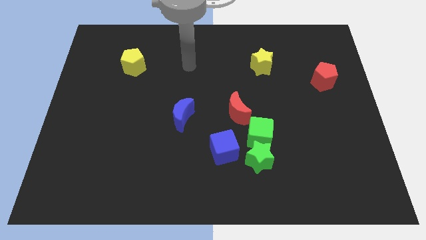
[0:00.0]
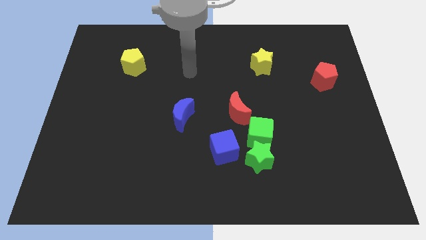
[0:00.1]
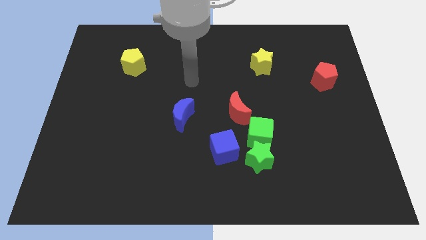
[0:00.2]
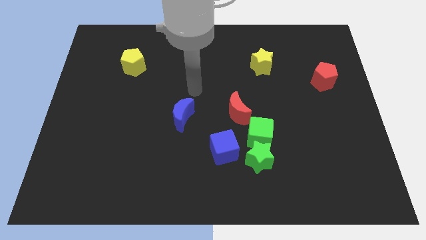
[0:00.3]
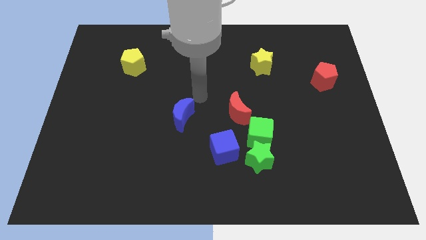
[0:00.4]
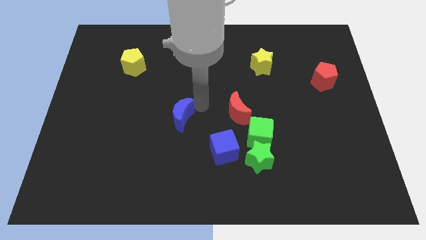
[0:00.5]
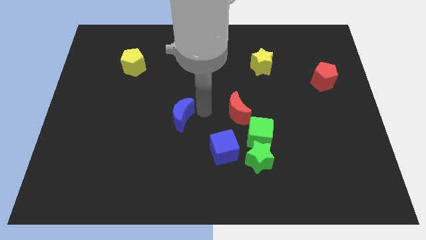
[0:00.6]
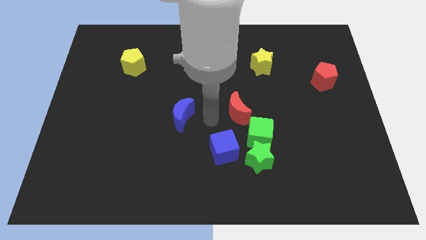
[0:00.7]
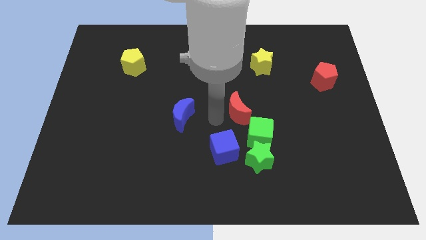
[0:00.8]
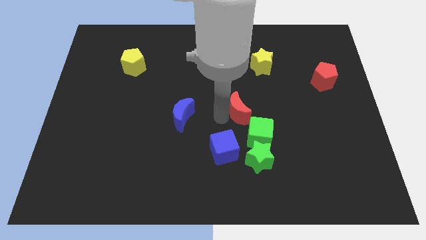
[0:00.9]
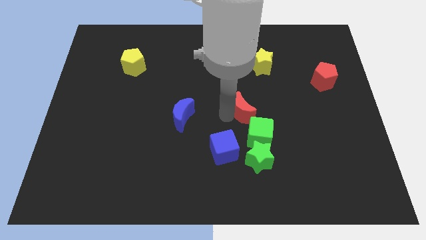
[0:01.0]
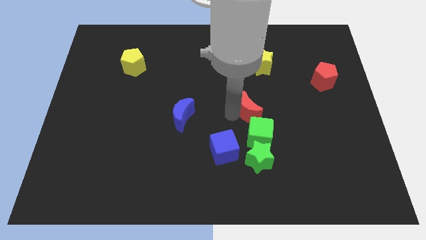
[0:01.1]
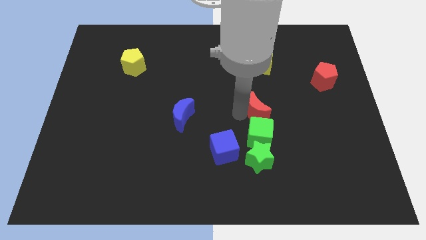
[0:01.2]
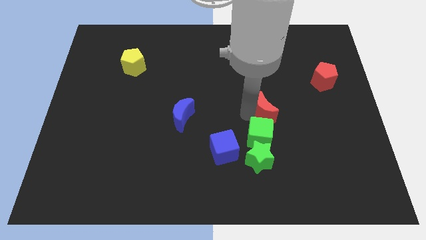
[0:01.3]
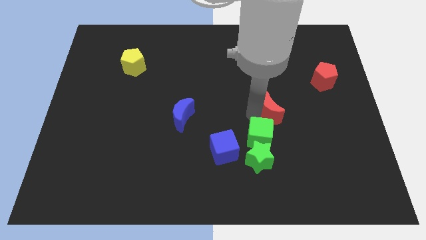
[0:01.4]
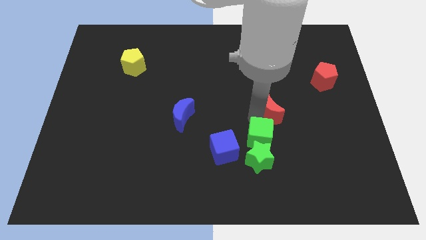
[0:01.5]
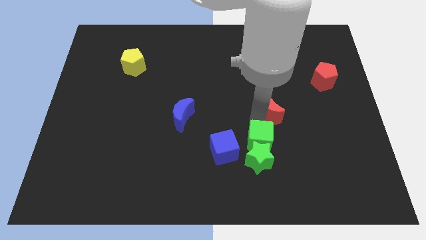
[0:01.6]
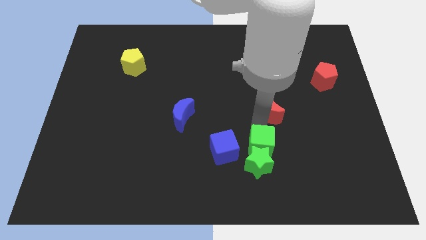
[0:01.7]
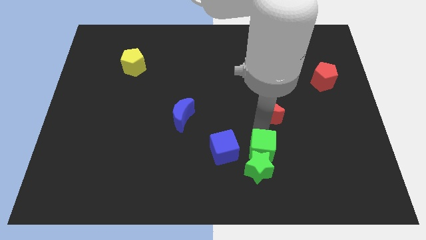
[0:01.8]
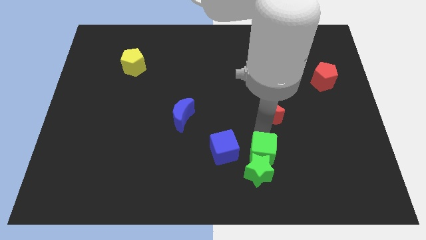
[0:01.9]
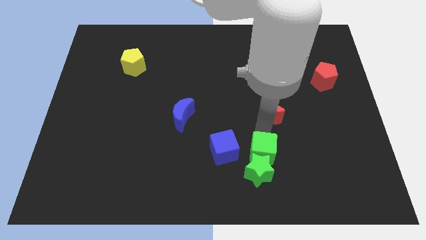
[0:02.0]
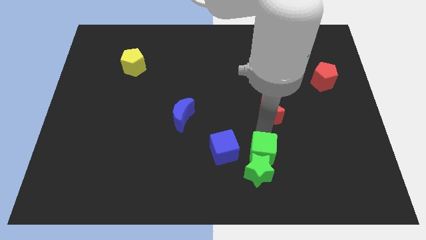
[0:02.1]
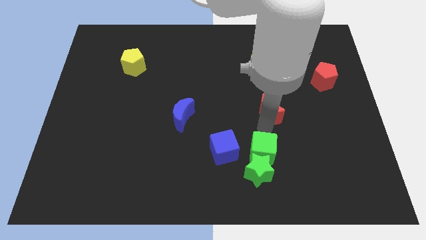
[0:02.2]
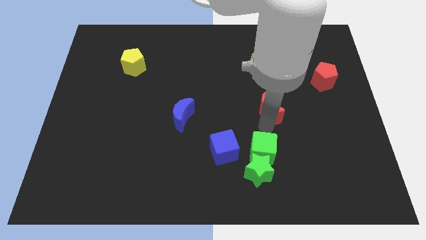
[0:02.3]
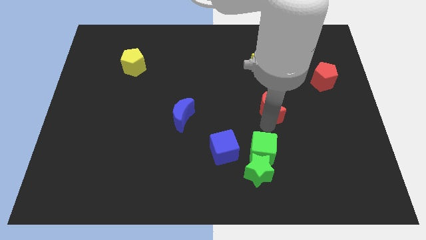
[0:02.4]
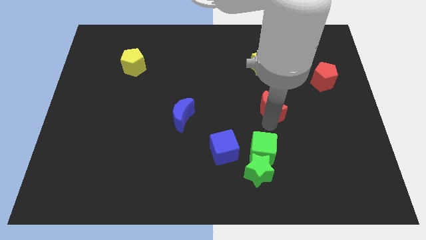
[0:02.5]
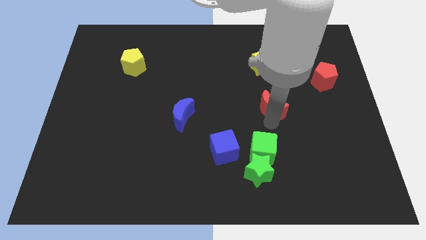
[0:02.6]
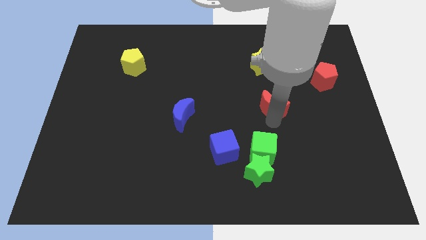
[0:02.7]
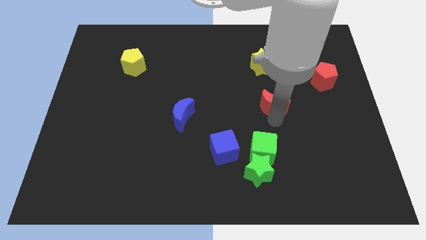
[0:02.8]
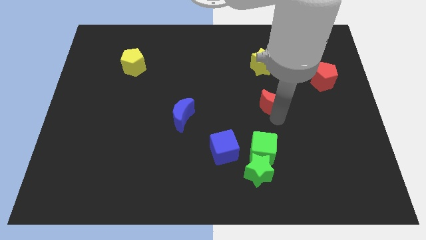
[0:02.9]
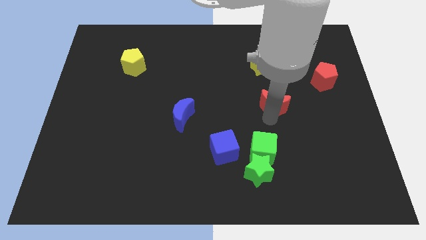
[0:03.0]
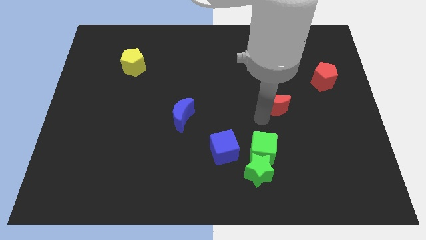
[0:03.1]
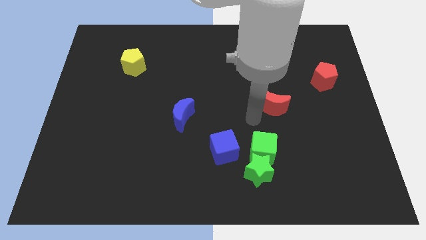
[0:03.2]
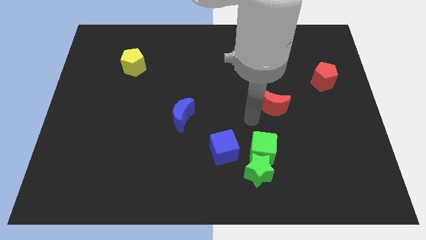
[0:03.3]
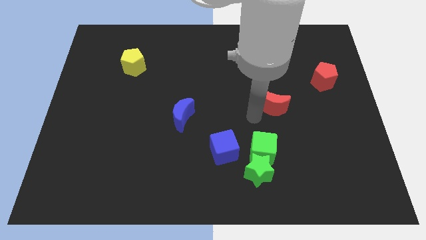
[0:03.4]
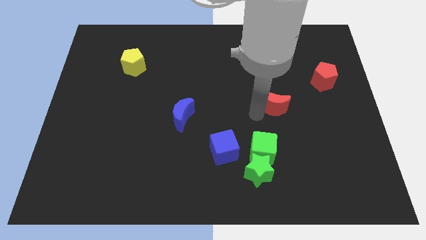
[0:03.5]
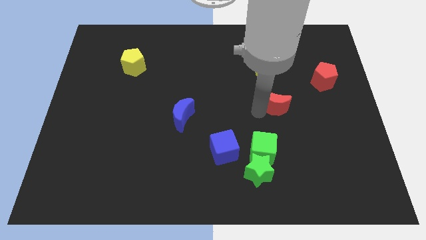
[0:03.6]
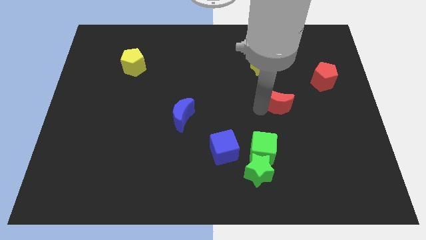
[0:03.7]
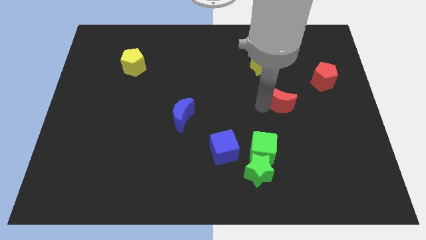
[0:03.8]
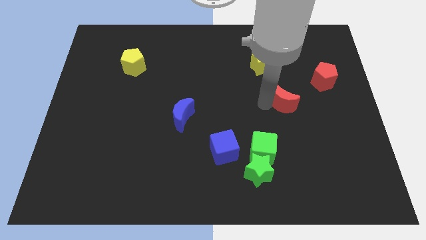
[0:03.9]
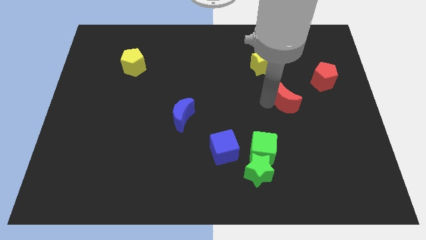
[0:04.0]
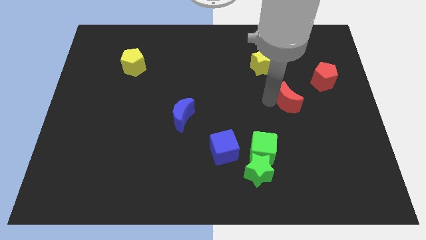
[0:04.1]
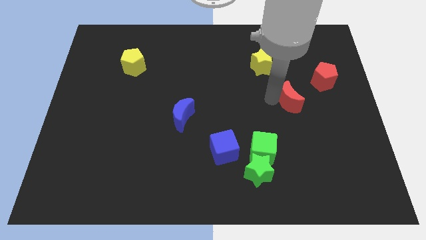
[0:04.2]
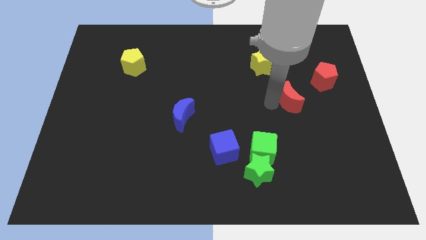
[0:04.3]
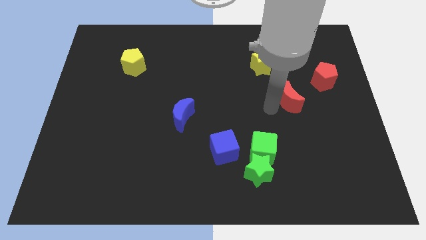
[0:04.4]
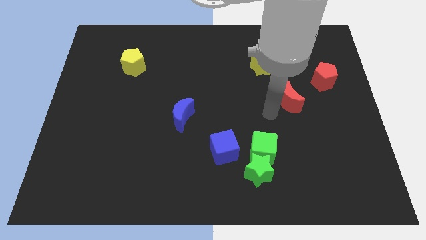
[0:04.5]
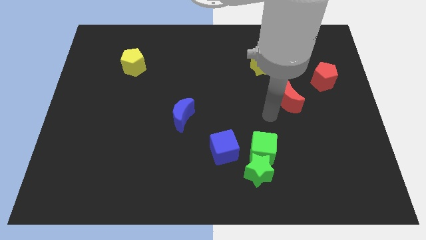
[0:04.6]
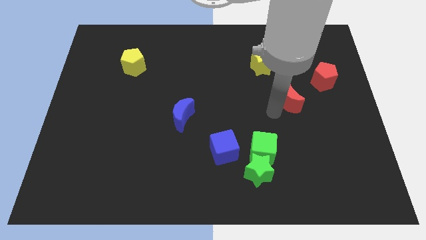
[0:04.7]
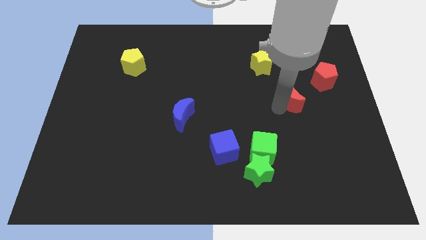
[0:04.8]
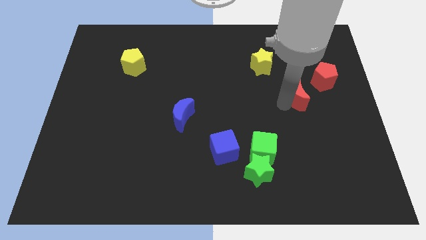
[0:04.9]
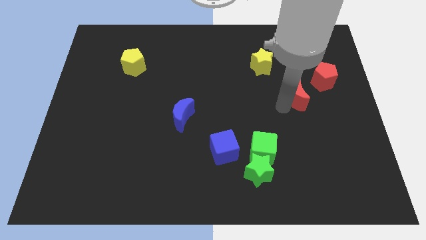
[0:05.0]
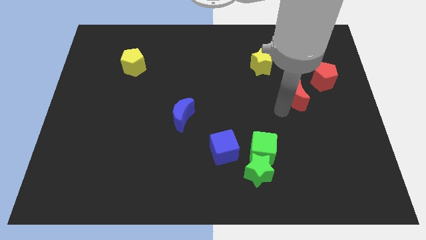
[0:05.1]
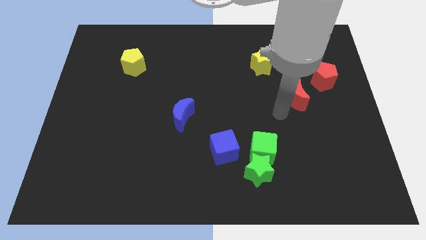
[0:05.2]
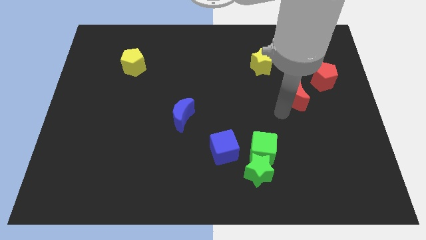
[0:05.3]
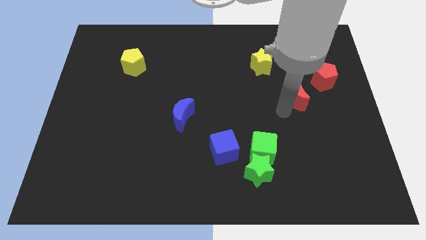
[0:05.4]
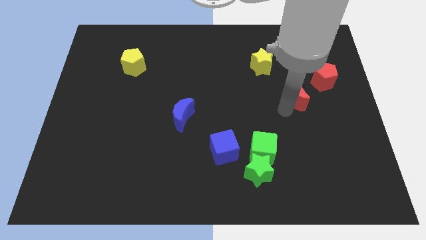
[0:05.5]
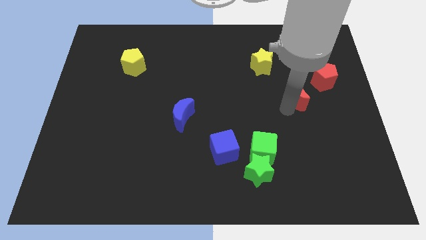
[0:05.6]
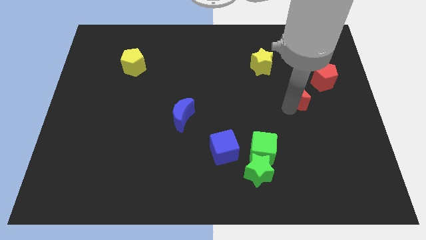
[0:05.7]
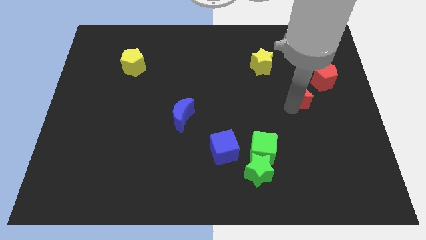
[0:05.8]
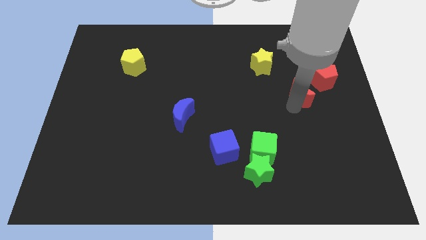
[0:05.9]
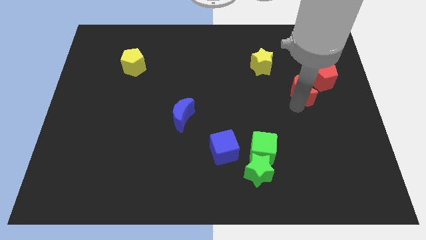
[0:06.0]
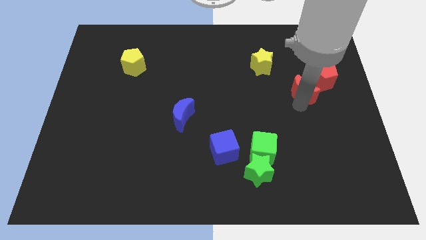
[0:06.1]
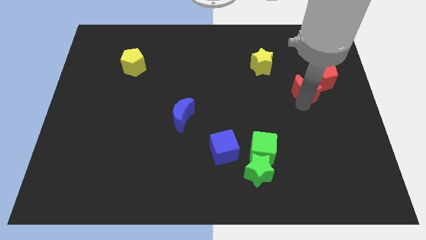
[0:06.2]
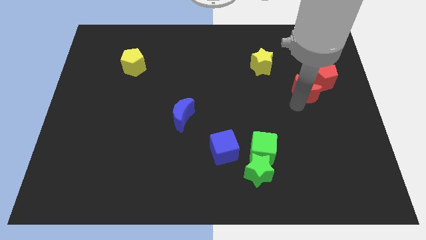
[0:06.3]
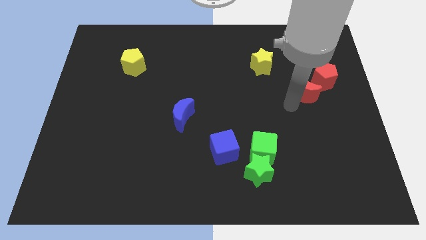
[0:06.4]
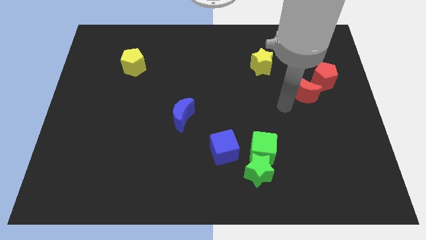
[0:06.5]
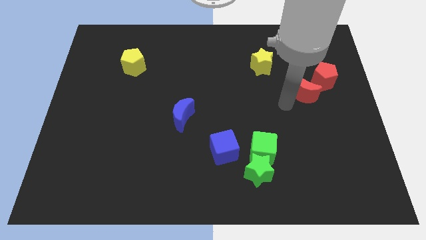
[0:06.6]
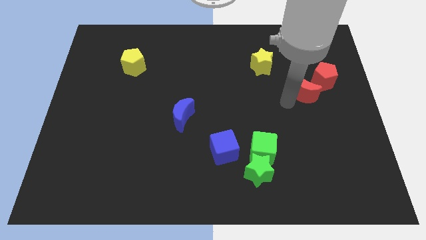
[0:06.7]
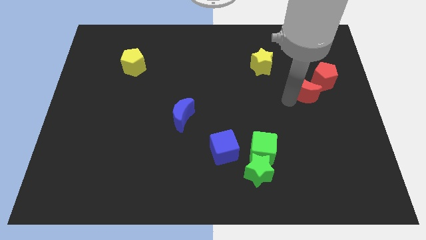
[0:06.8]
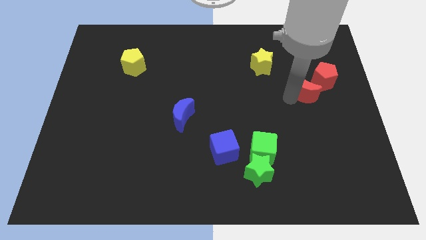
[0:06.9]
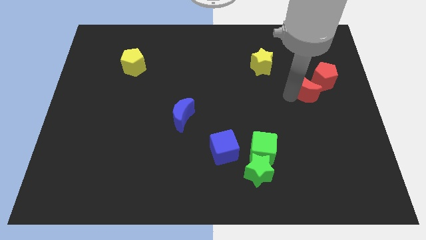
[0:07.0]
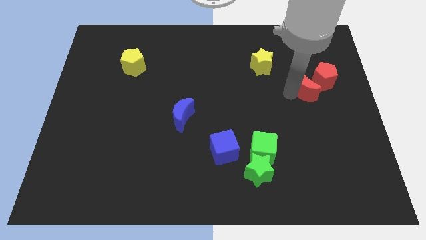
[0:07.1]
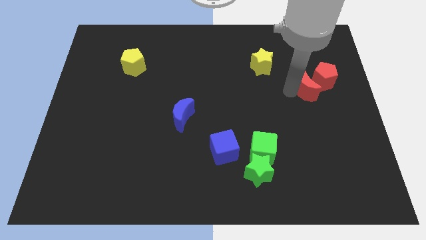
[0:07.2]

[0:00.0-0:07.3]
slide the red moon close to the red pentagon
